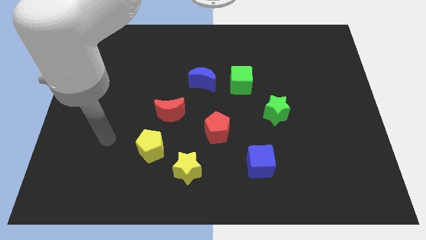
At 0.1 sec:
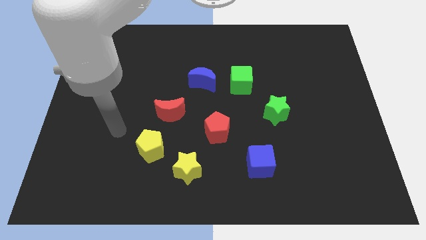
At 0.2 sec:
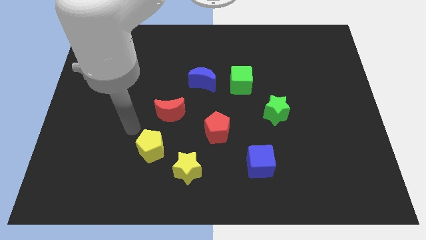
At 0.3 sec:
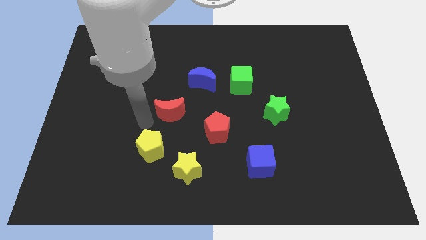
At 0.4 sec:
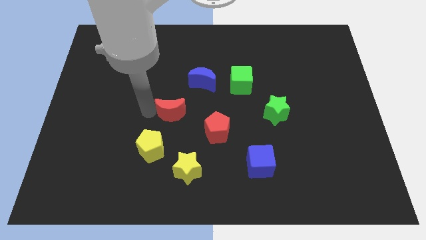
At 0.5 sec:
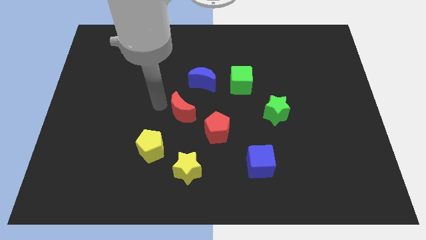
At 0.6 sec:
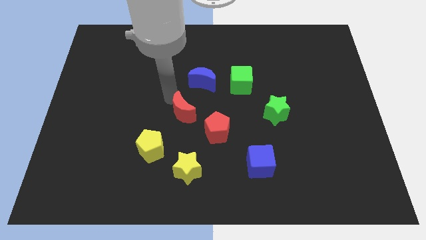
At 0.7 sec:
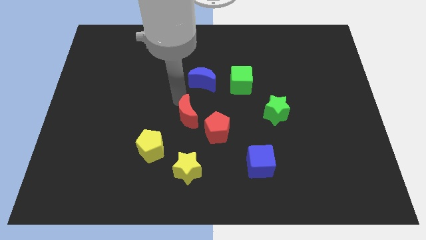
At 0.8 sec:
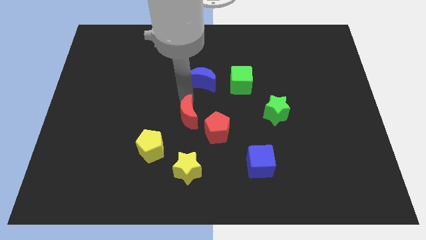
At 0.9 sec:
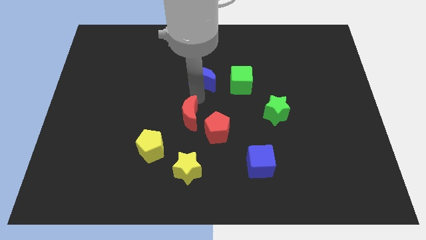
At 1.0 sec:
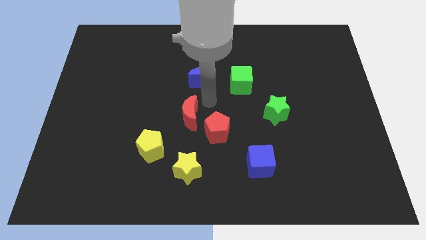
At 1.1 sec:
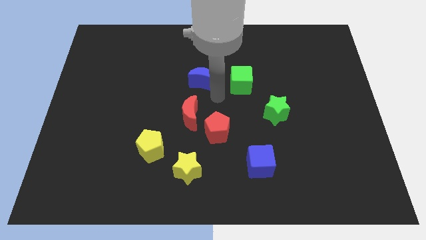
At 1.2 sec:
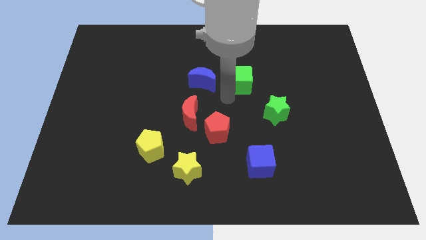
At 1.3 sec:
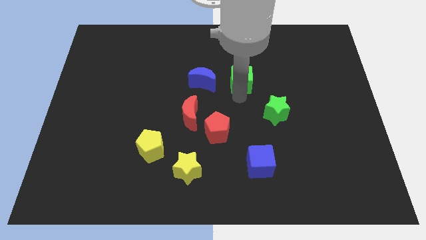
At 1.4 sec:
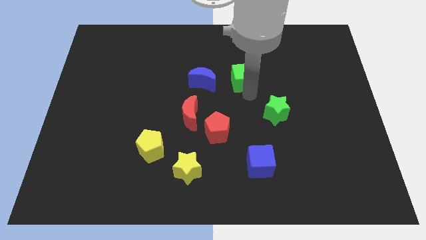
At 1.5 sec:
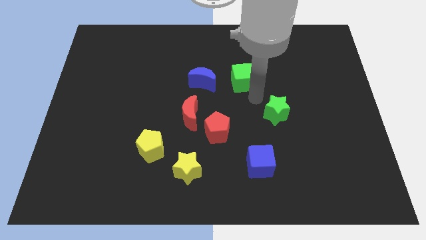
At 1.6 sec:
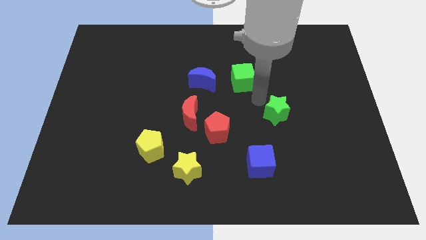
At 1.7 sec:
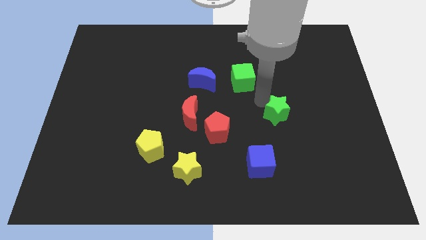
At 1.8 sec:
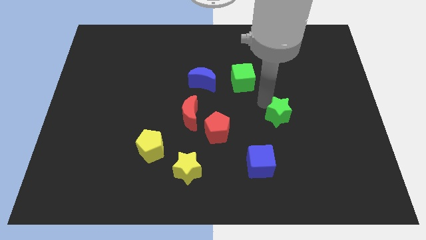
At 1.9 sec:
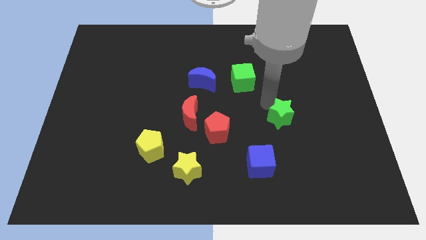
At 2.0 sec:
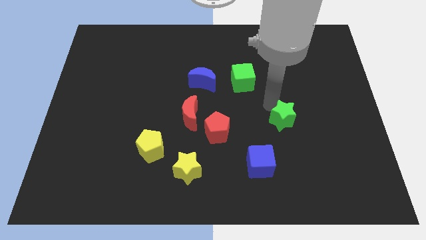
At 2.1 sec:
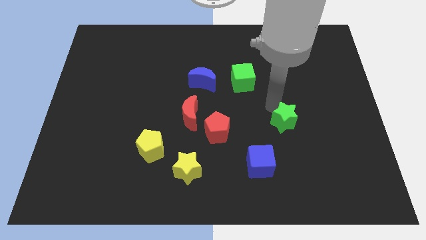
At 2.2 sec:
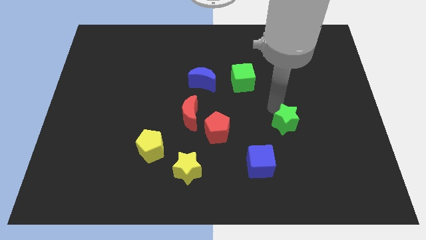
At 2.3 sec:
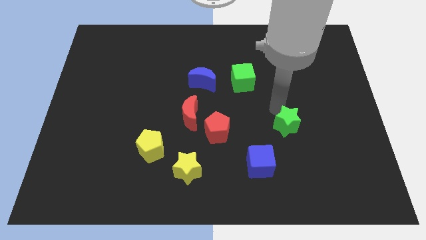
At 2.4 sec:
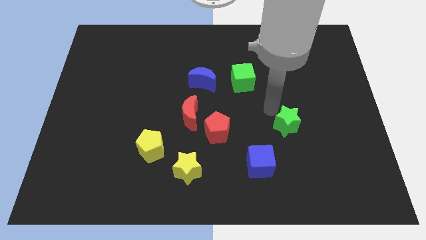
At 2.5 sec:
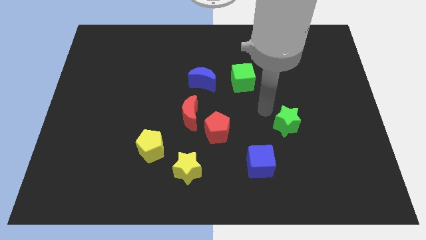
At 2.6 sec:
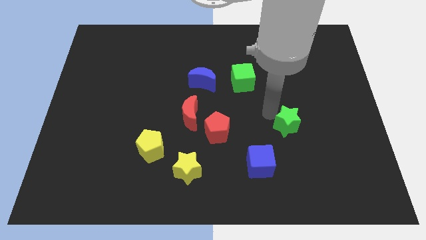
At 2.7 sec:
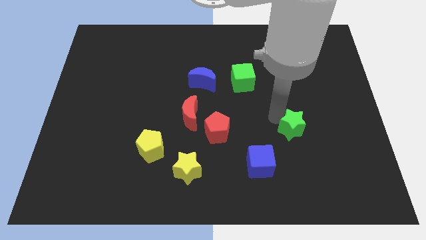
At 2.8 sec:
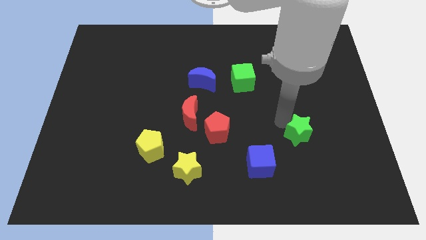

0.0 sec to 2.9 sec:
move the green star a bit downwards and to the right

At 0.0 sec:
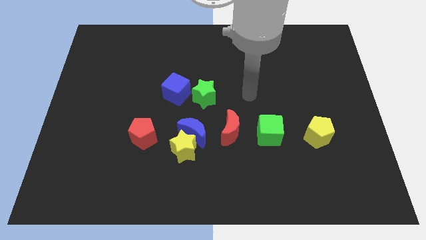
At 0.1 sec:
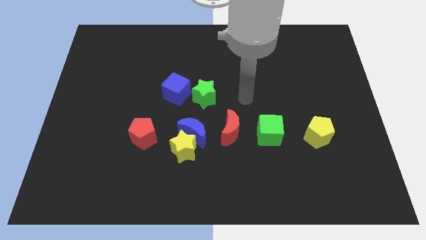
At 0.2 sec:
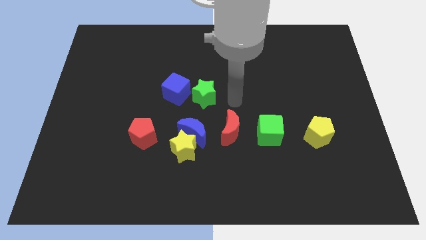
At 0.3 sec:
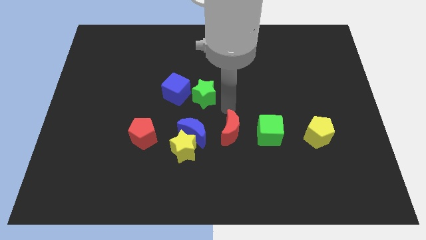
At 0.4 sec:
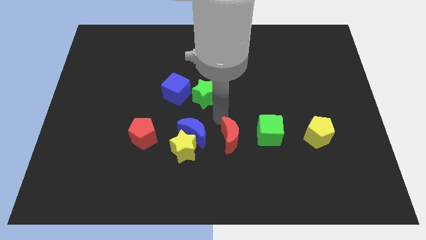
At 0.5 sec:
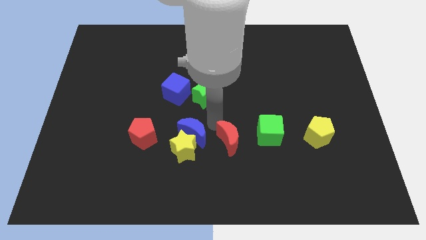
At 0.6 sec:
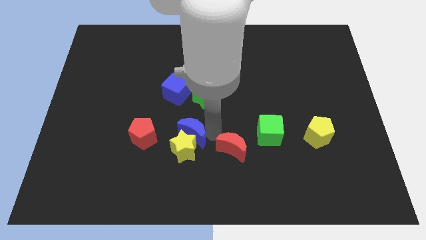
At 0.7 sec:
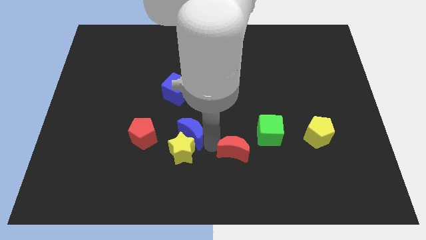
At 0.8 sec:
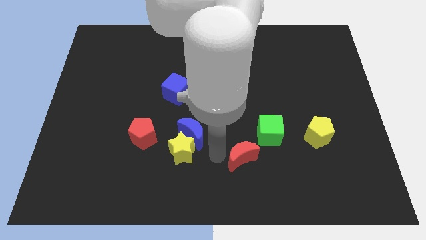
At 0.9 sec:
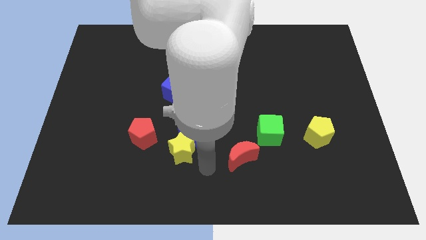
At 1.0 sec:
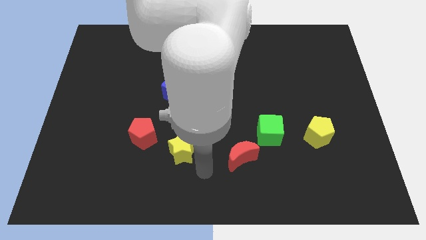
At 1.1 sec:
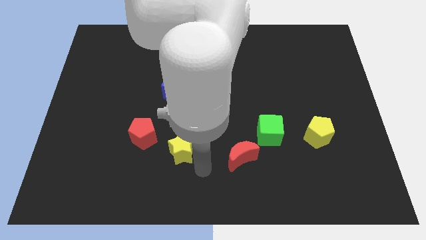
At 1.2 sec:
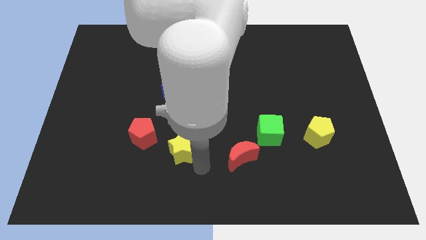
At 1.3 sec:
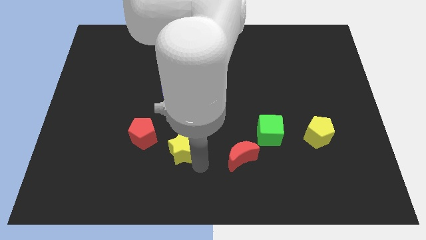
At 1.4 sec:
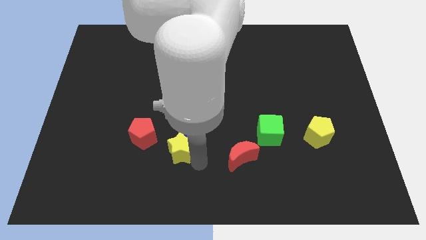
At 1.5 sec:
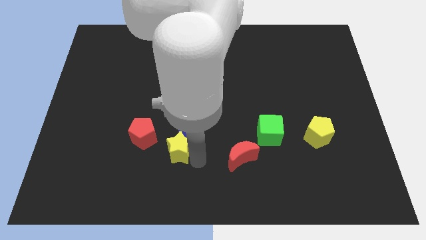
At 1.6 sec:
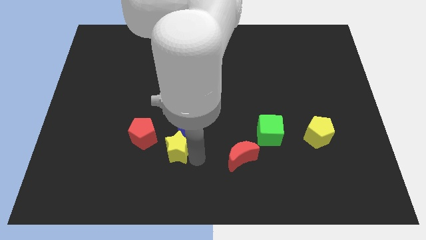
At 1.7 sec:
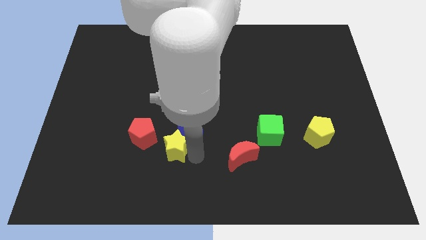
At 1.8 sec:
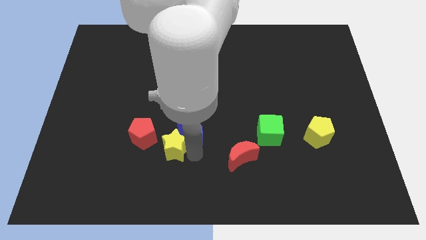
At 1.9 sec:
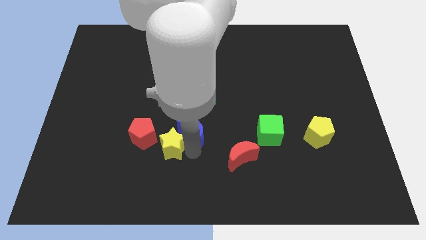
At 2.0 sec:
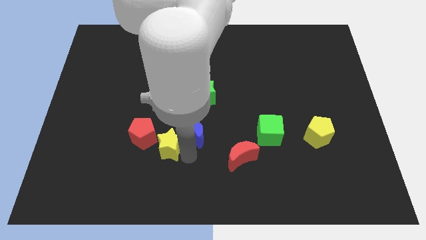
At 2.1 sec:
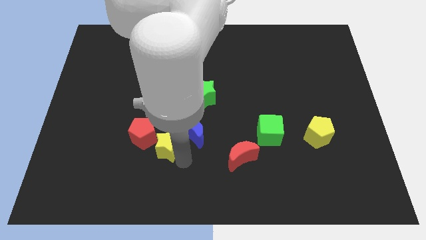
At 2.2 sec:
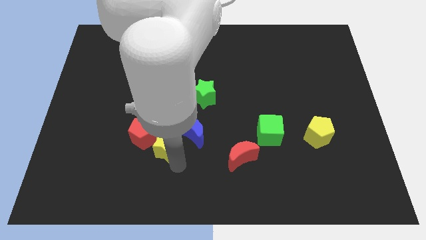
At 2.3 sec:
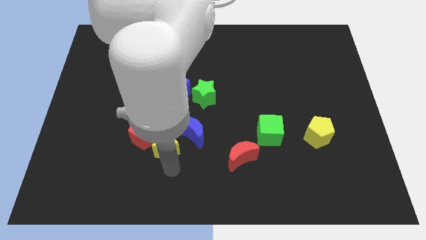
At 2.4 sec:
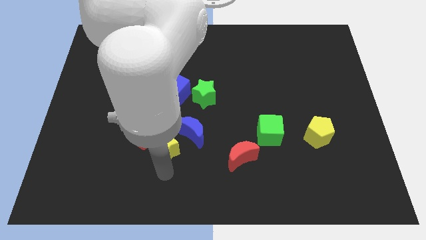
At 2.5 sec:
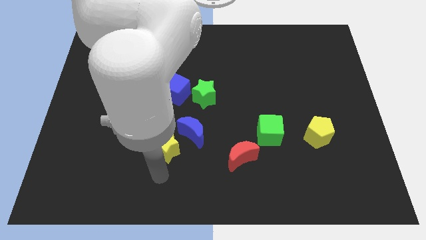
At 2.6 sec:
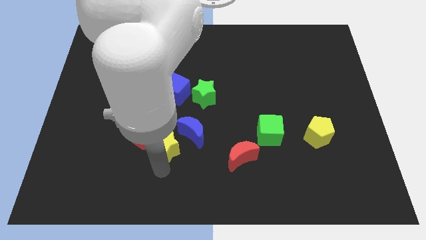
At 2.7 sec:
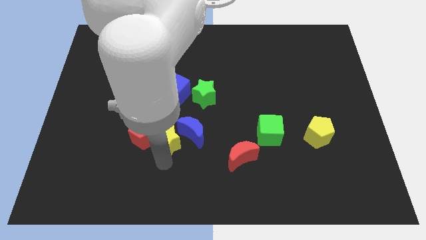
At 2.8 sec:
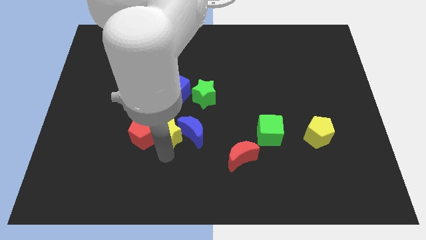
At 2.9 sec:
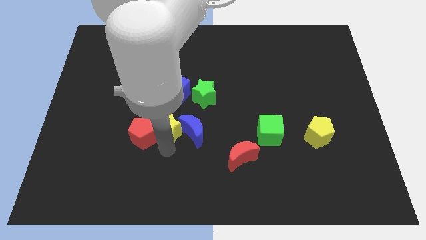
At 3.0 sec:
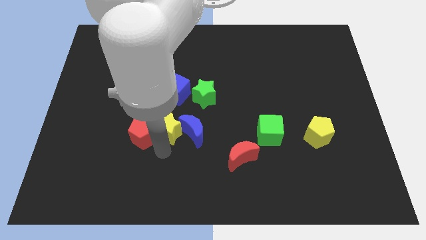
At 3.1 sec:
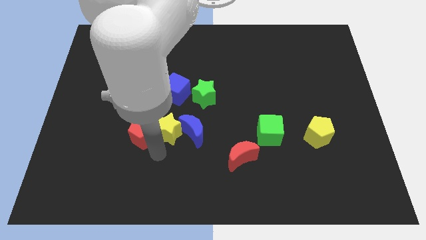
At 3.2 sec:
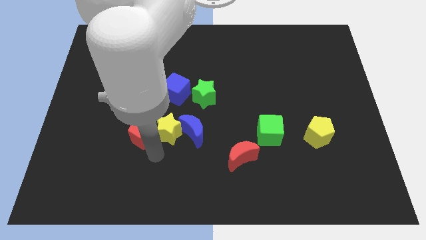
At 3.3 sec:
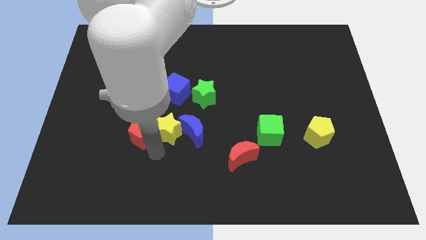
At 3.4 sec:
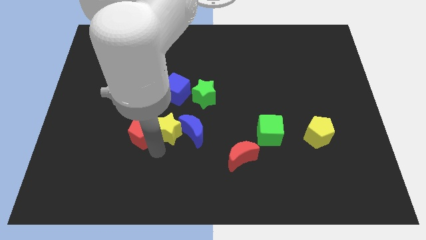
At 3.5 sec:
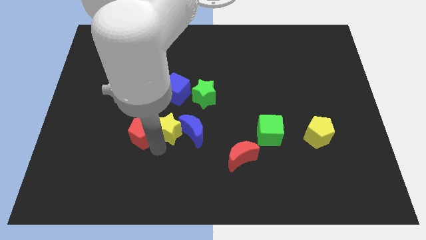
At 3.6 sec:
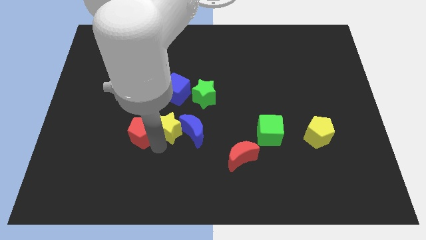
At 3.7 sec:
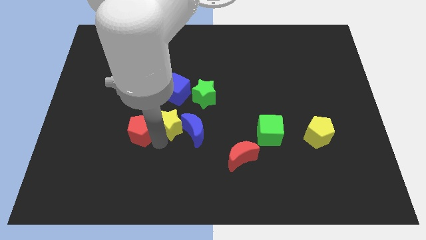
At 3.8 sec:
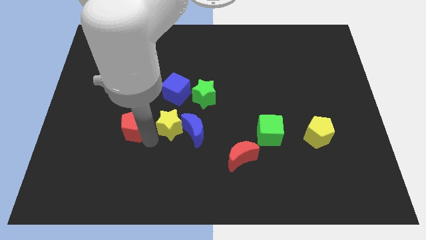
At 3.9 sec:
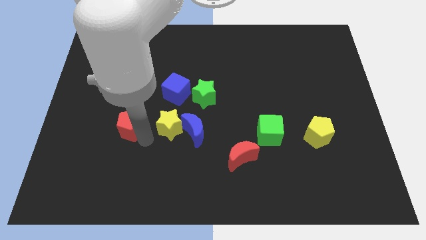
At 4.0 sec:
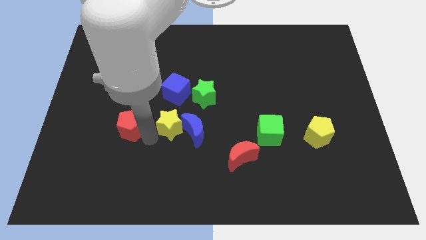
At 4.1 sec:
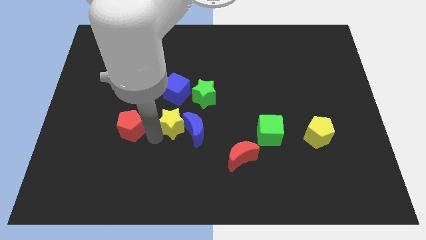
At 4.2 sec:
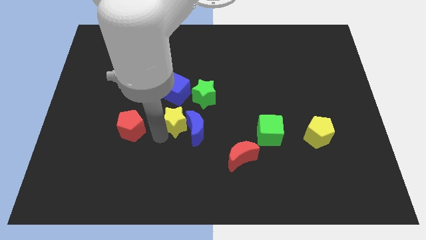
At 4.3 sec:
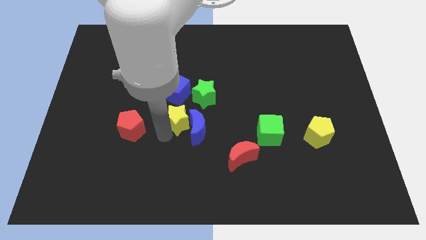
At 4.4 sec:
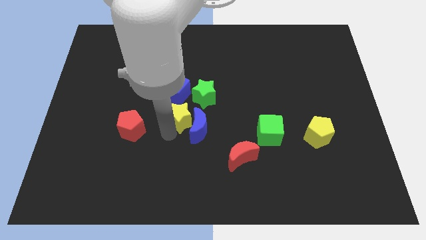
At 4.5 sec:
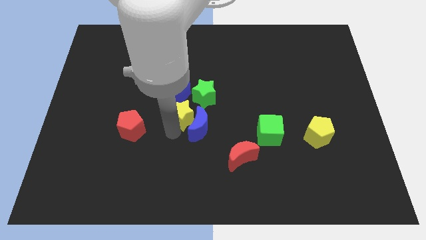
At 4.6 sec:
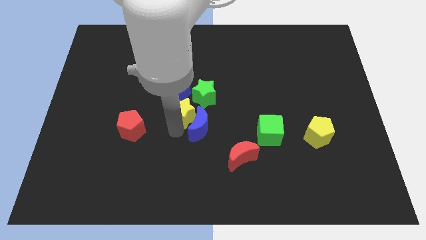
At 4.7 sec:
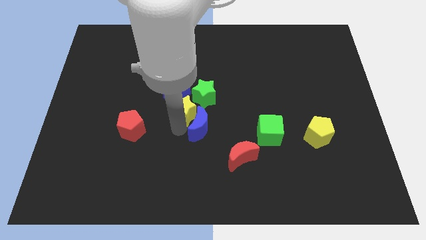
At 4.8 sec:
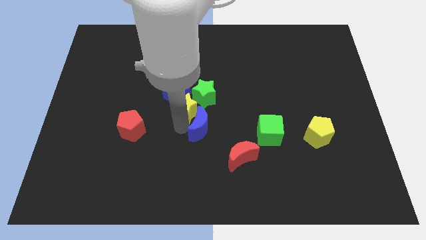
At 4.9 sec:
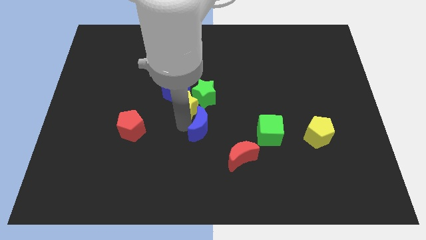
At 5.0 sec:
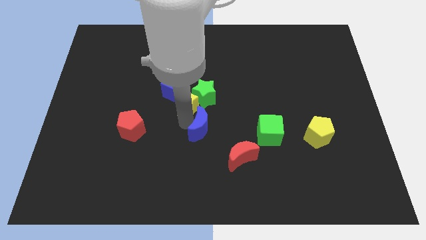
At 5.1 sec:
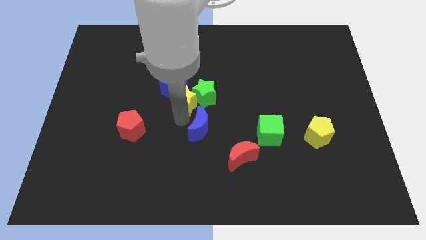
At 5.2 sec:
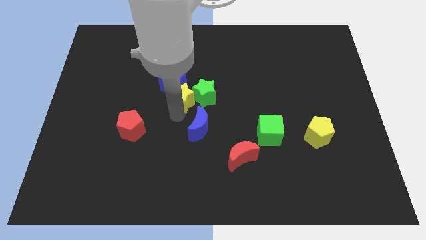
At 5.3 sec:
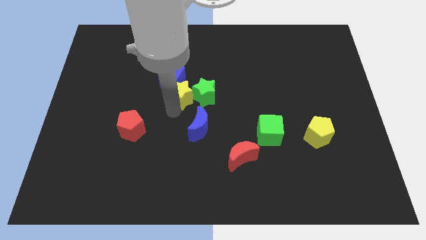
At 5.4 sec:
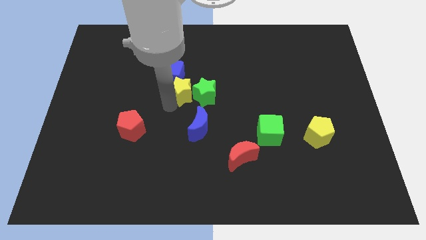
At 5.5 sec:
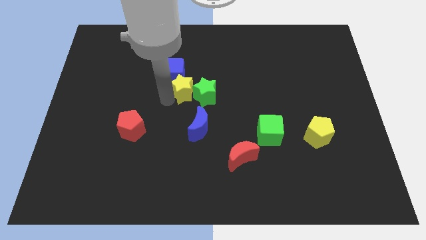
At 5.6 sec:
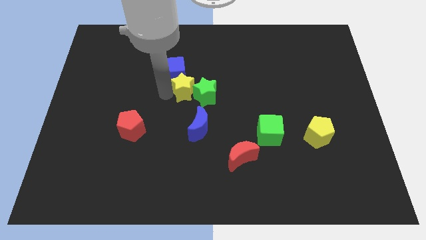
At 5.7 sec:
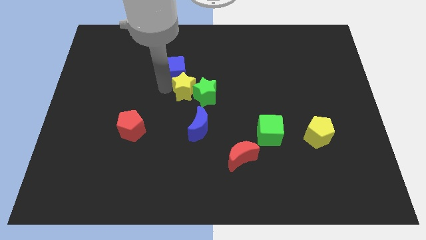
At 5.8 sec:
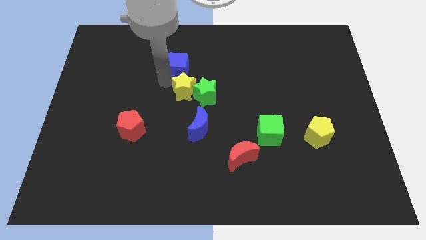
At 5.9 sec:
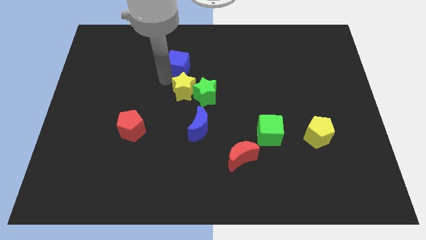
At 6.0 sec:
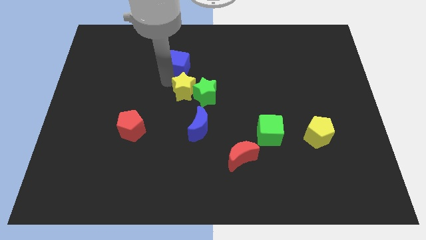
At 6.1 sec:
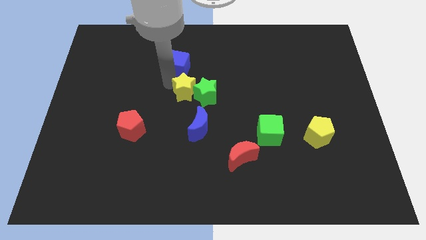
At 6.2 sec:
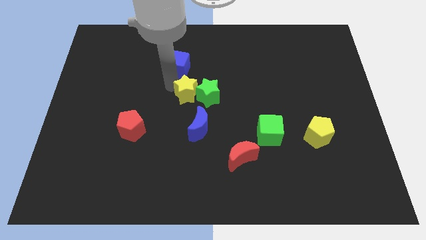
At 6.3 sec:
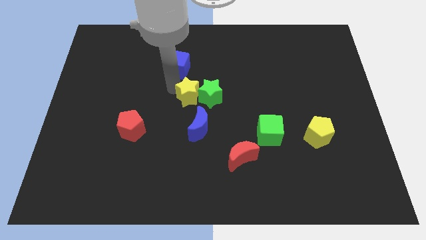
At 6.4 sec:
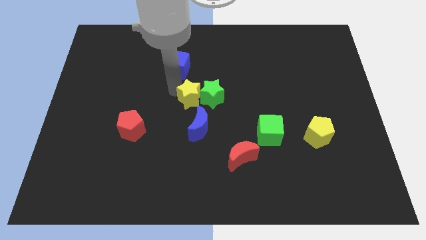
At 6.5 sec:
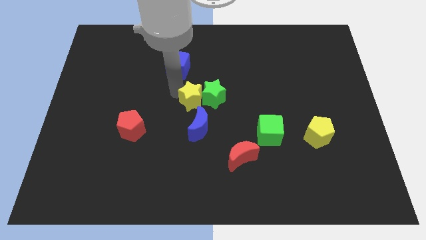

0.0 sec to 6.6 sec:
move the yellow star upwards and then to the right a little
